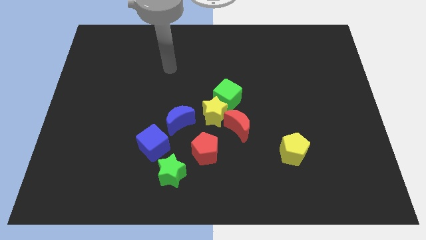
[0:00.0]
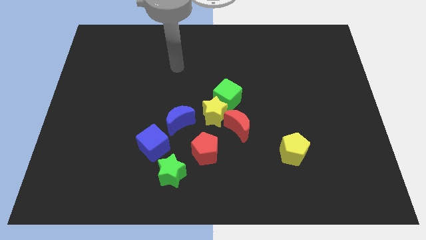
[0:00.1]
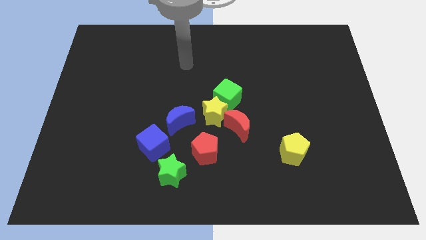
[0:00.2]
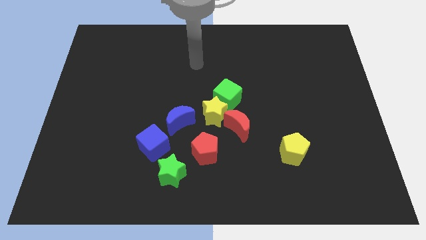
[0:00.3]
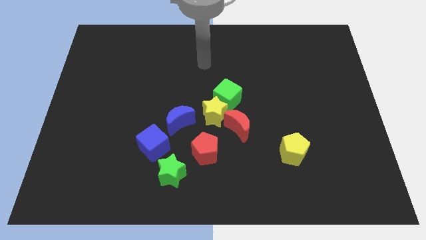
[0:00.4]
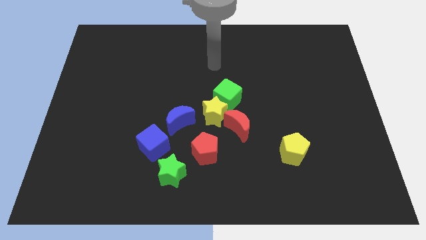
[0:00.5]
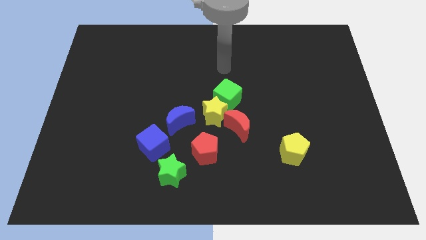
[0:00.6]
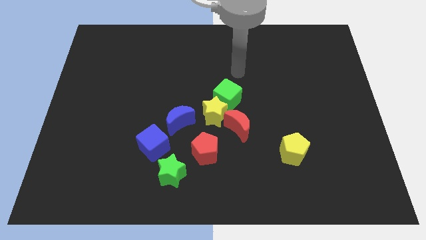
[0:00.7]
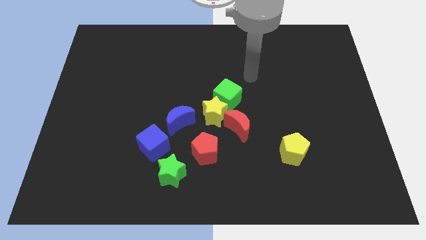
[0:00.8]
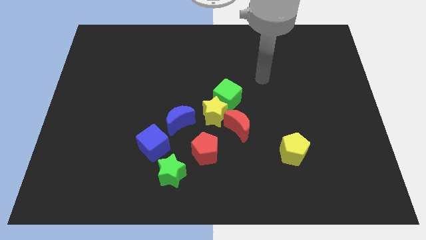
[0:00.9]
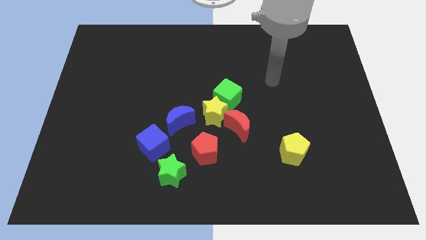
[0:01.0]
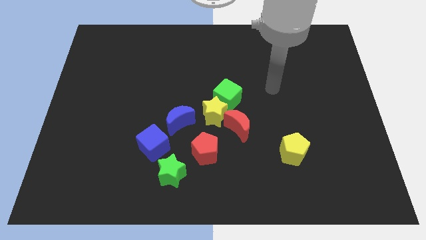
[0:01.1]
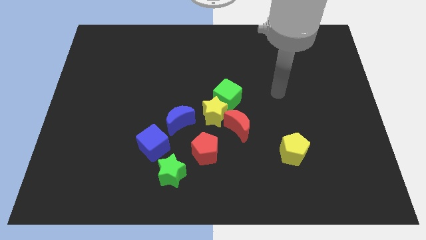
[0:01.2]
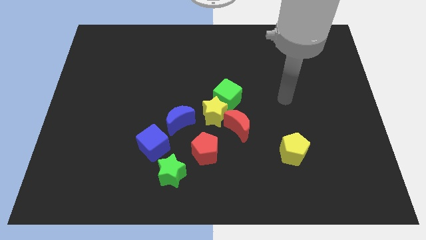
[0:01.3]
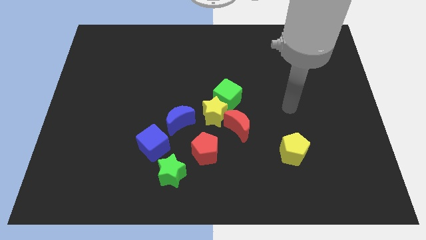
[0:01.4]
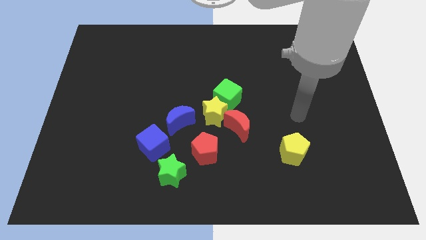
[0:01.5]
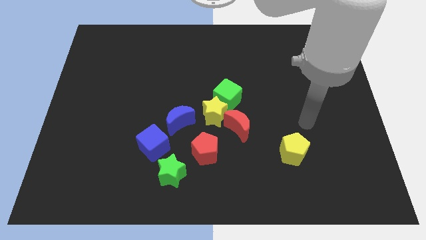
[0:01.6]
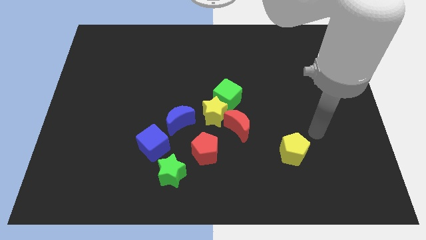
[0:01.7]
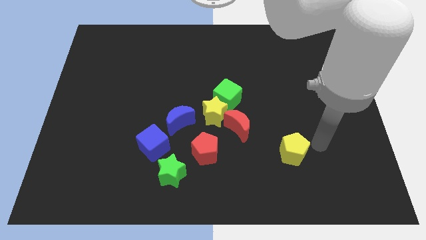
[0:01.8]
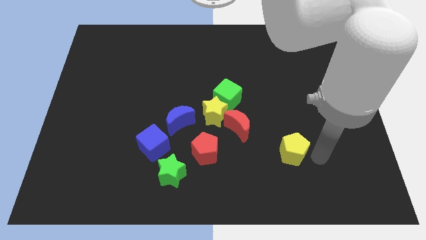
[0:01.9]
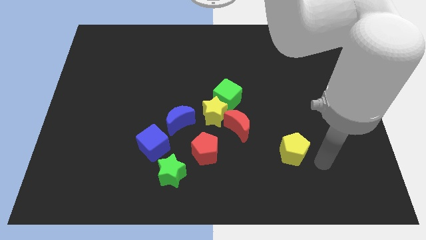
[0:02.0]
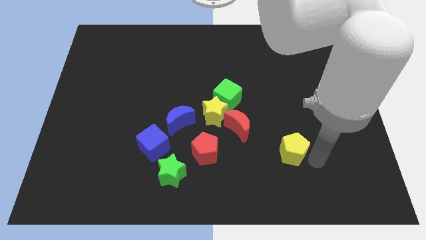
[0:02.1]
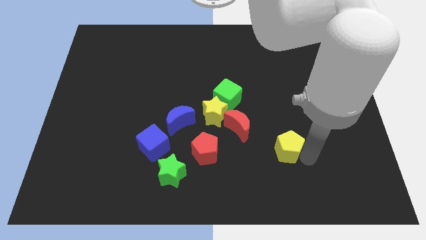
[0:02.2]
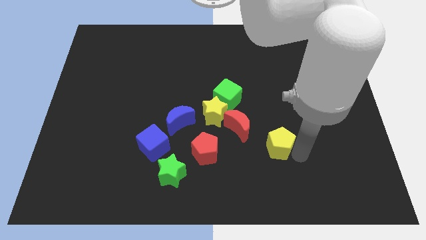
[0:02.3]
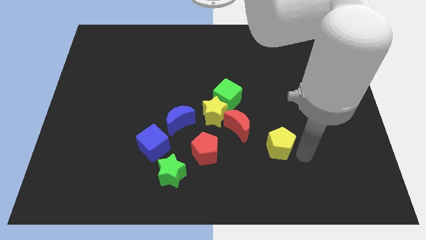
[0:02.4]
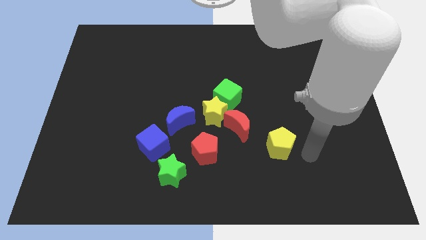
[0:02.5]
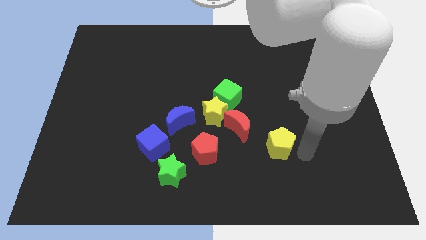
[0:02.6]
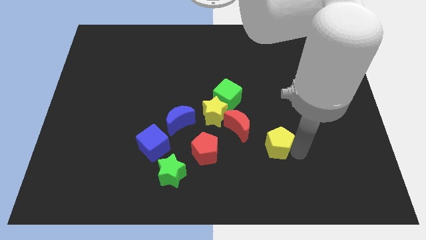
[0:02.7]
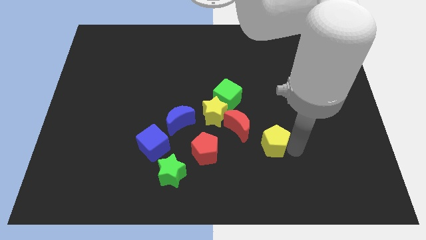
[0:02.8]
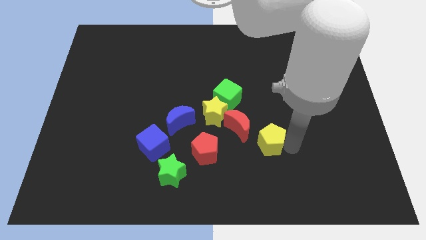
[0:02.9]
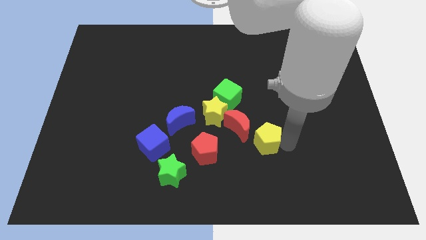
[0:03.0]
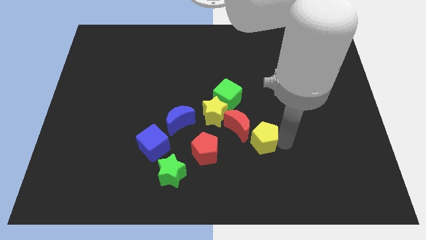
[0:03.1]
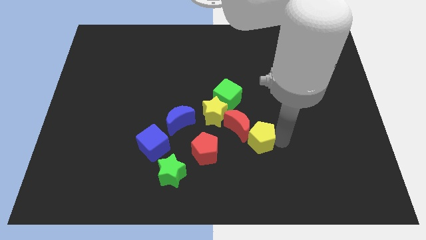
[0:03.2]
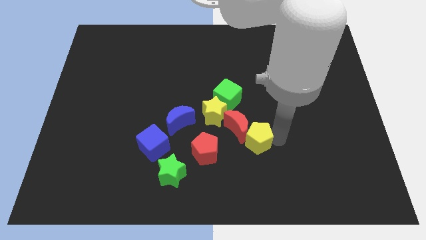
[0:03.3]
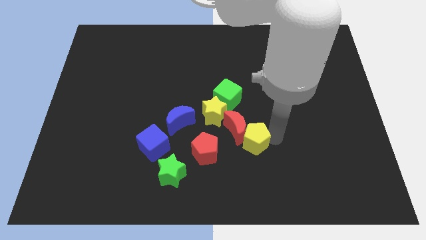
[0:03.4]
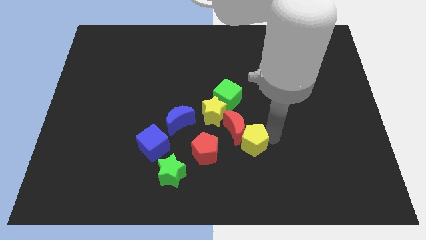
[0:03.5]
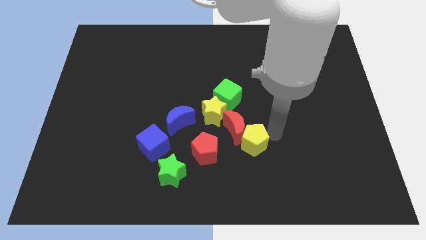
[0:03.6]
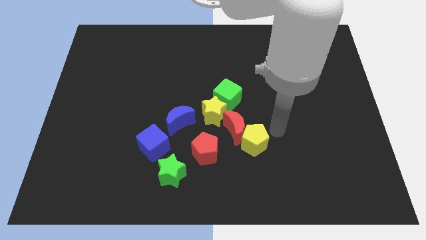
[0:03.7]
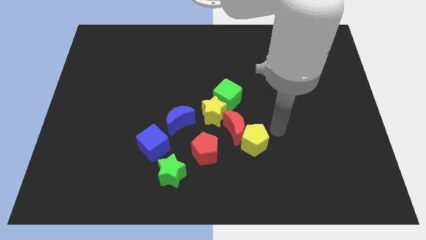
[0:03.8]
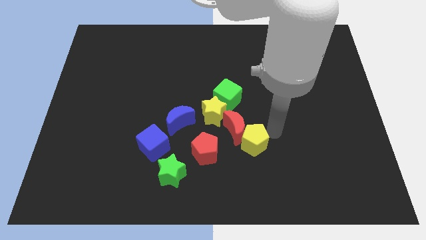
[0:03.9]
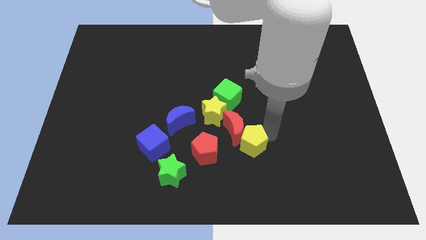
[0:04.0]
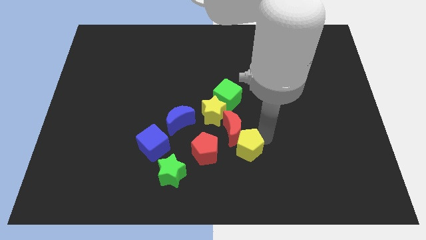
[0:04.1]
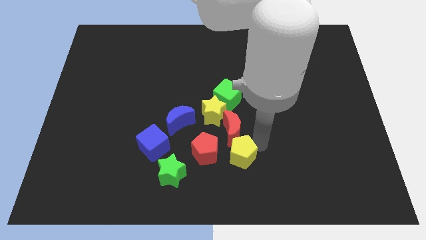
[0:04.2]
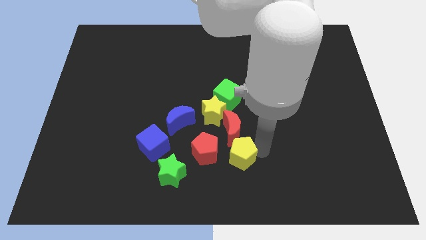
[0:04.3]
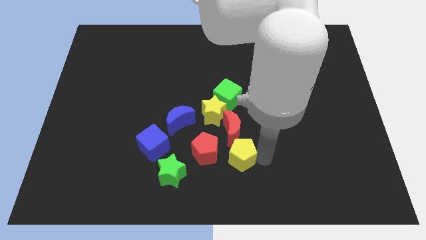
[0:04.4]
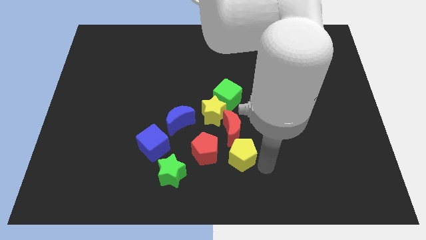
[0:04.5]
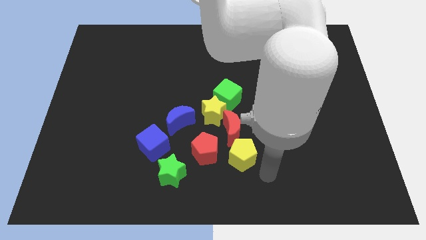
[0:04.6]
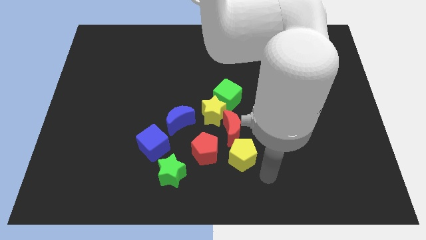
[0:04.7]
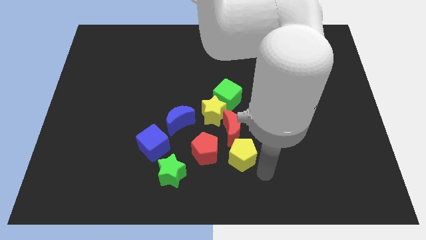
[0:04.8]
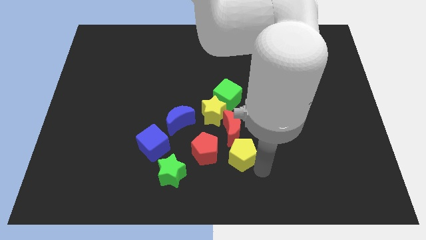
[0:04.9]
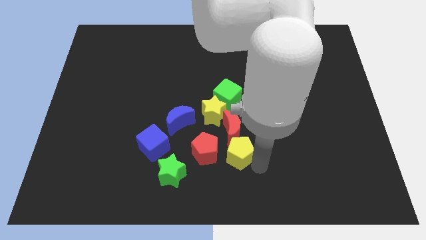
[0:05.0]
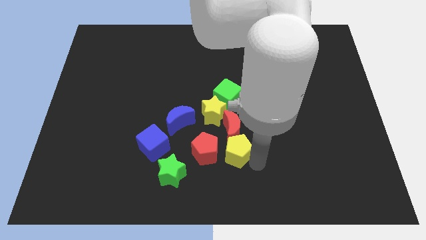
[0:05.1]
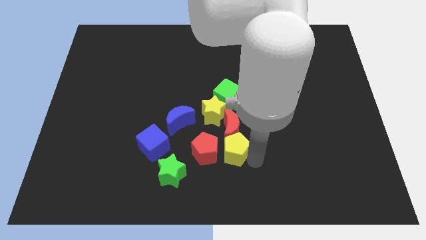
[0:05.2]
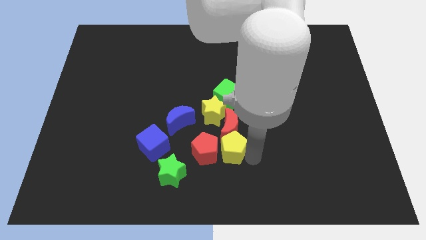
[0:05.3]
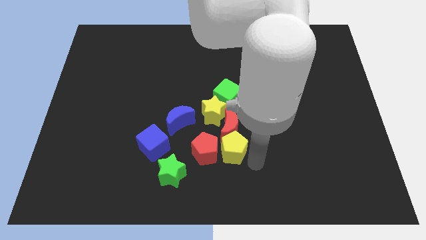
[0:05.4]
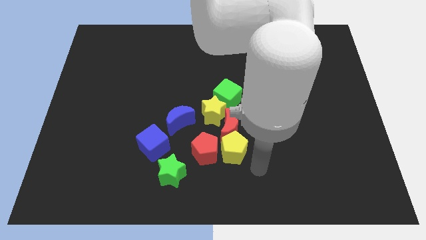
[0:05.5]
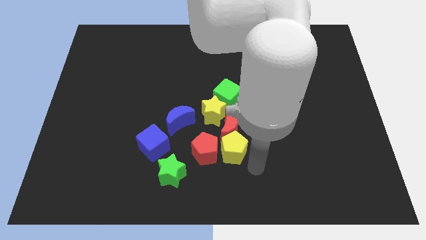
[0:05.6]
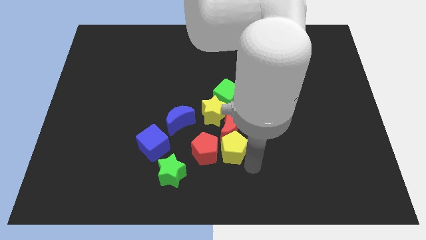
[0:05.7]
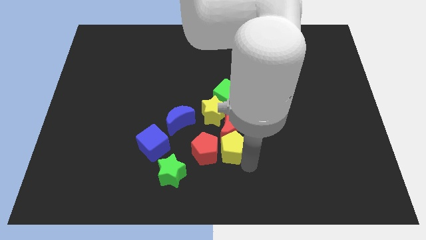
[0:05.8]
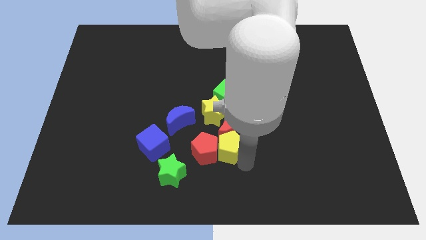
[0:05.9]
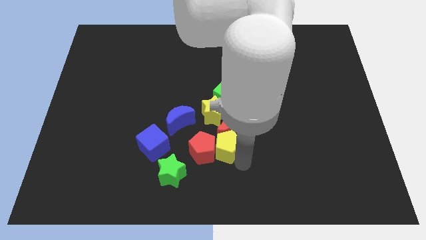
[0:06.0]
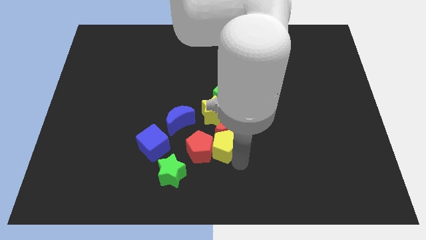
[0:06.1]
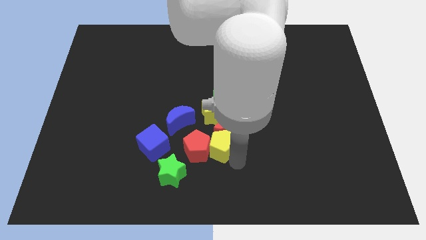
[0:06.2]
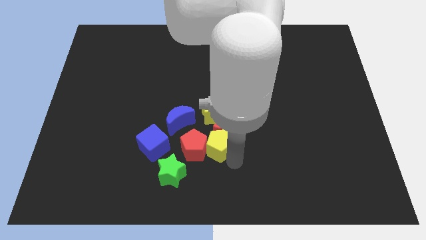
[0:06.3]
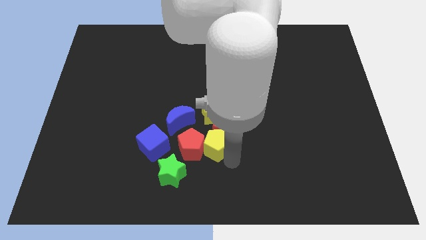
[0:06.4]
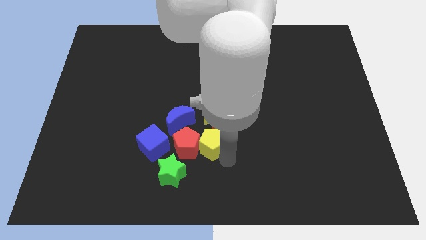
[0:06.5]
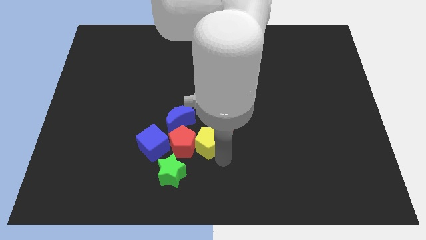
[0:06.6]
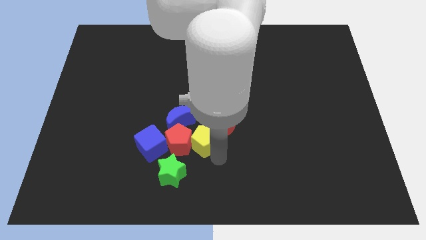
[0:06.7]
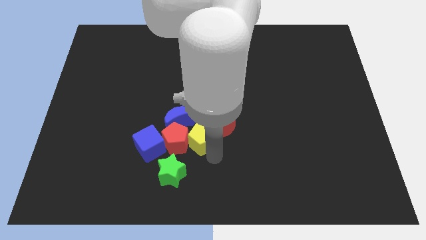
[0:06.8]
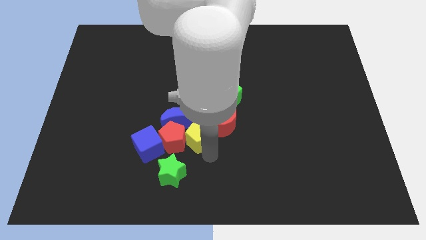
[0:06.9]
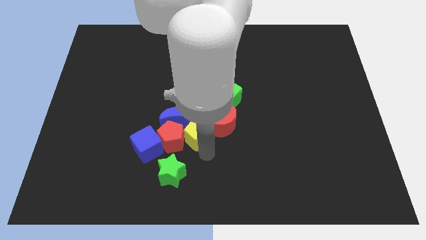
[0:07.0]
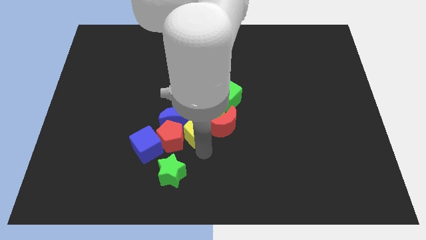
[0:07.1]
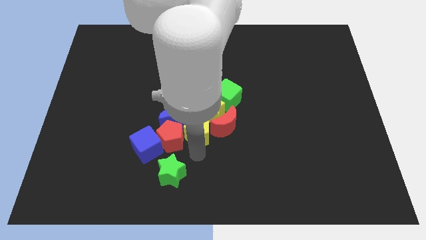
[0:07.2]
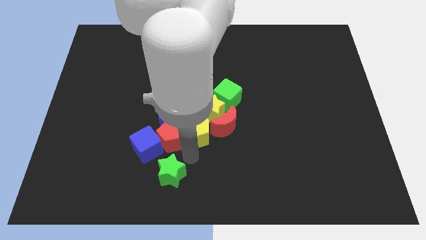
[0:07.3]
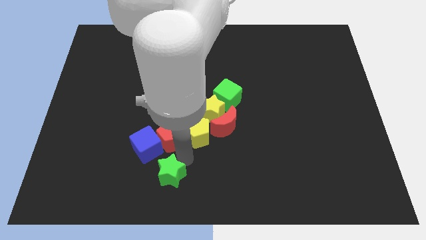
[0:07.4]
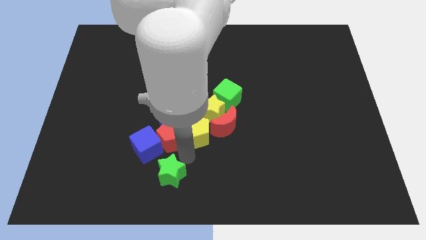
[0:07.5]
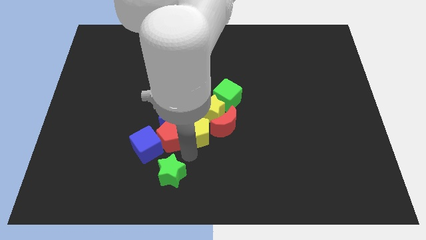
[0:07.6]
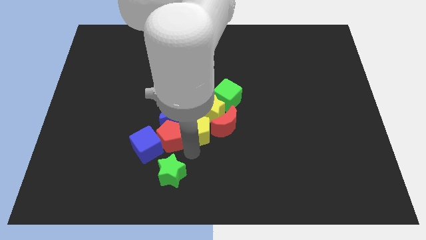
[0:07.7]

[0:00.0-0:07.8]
slide the yellow pentagon to the yellow star
